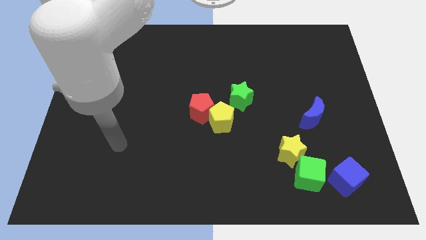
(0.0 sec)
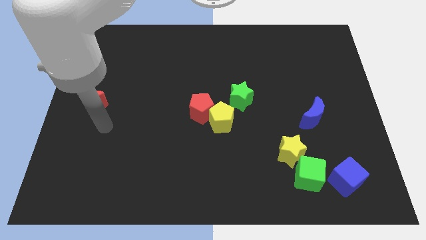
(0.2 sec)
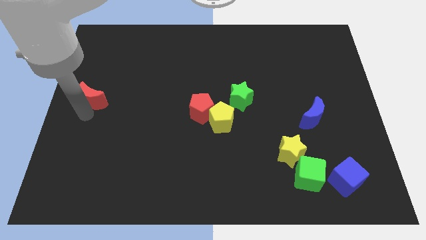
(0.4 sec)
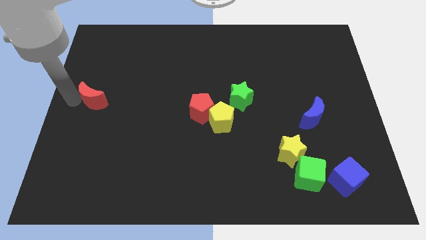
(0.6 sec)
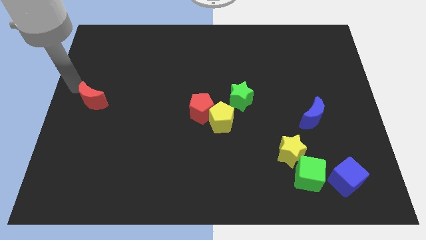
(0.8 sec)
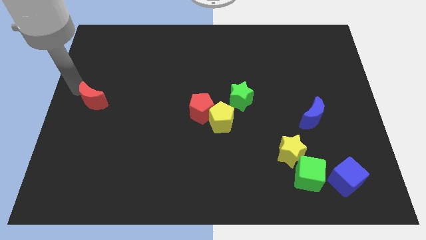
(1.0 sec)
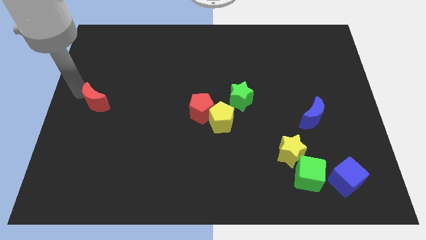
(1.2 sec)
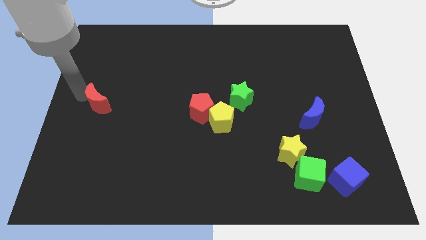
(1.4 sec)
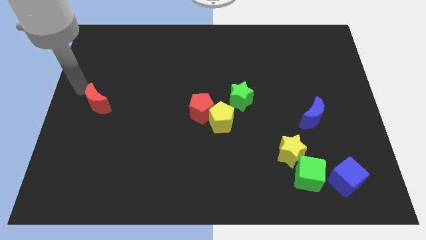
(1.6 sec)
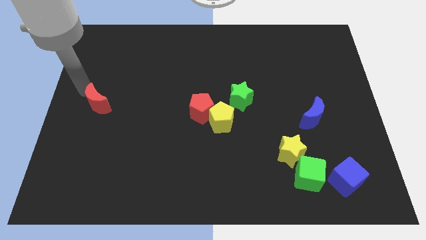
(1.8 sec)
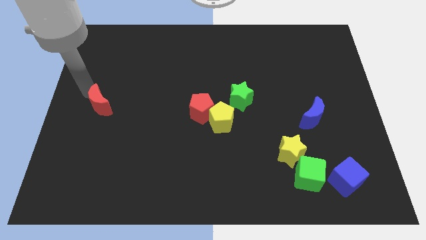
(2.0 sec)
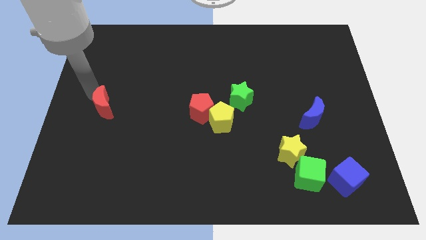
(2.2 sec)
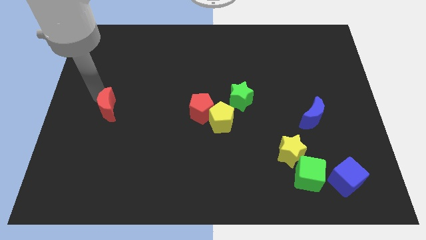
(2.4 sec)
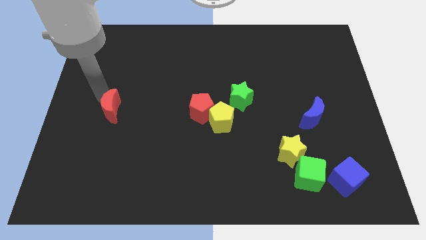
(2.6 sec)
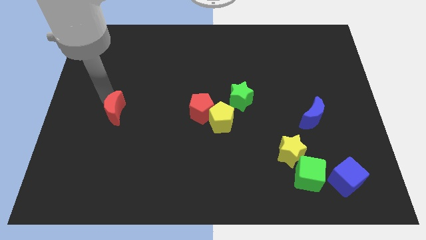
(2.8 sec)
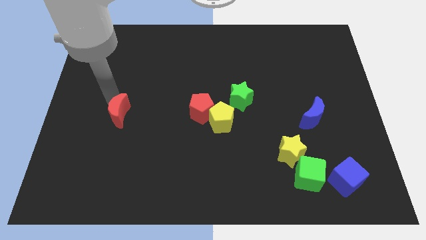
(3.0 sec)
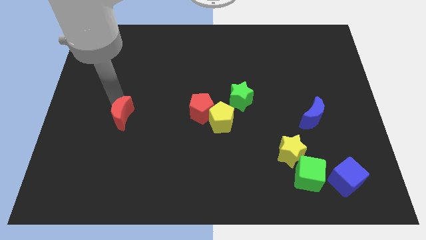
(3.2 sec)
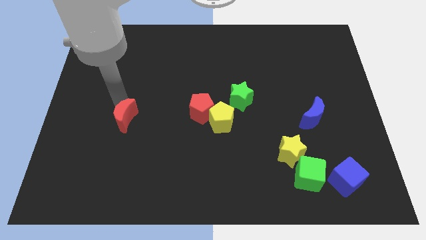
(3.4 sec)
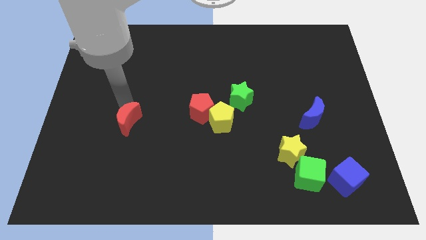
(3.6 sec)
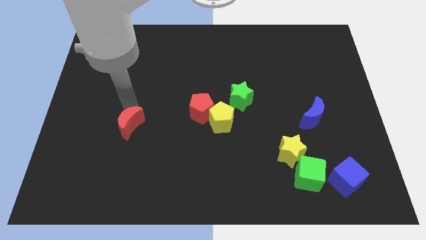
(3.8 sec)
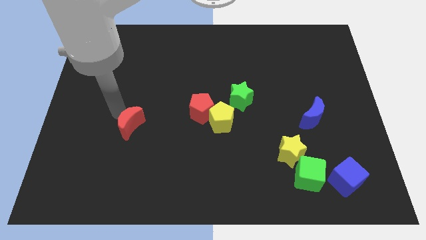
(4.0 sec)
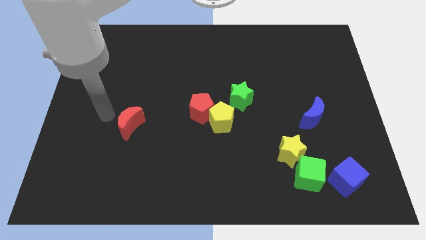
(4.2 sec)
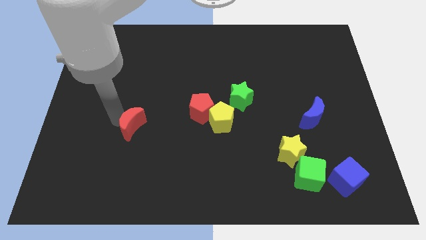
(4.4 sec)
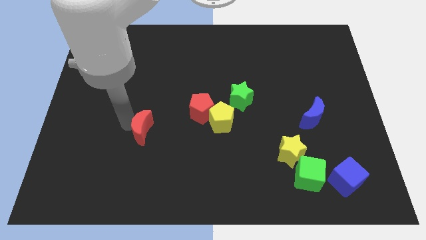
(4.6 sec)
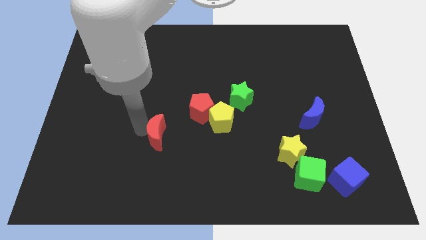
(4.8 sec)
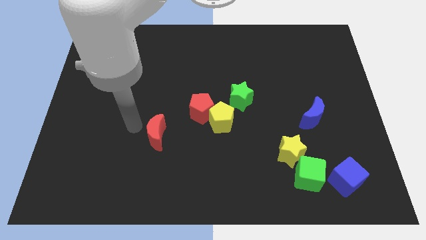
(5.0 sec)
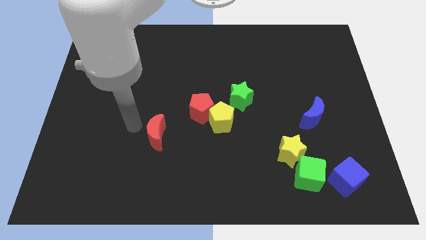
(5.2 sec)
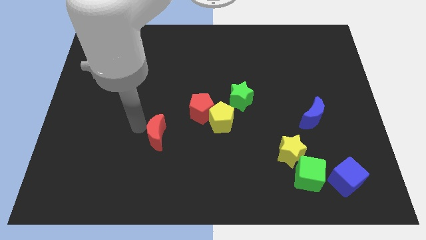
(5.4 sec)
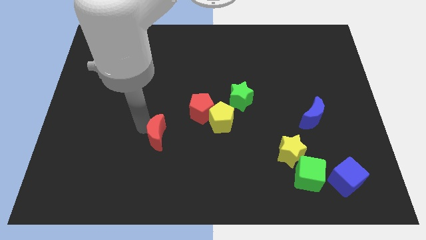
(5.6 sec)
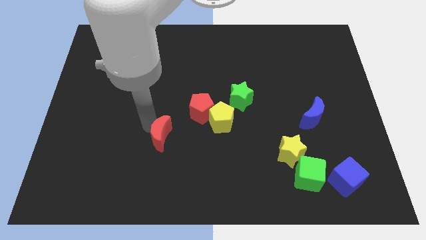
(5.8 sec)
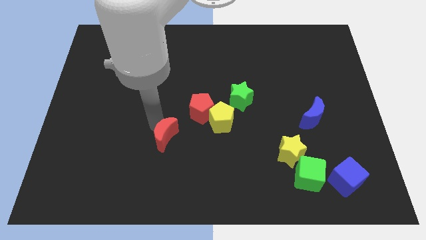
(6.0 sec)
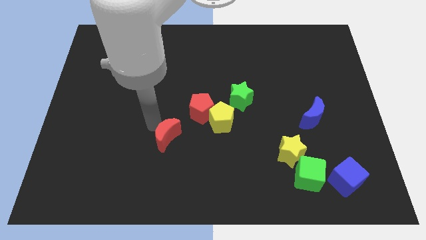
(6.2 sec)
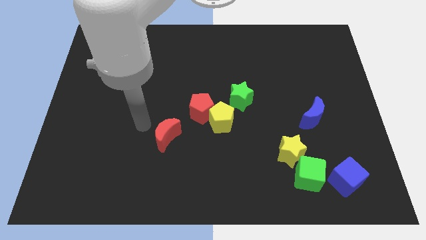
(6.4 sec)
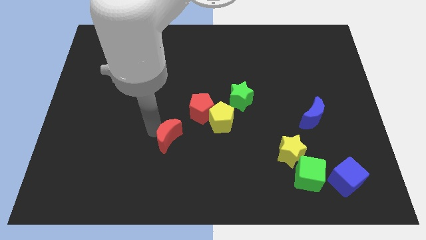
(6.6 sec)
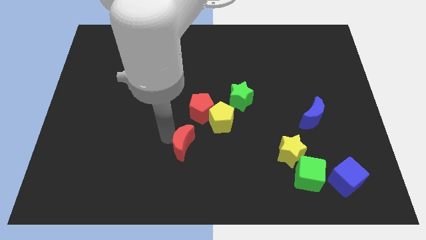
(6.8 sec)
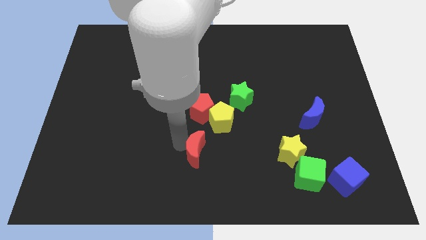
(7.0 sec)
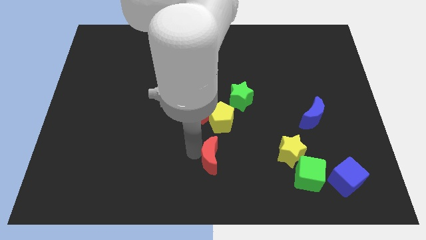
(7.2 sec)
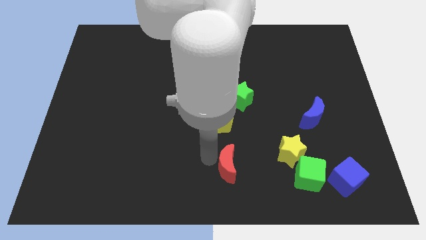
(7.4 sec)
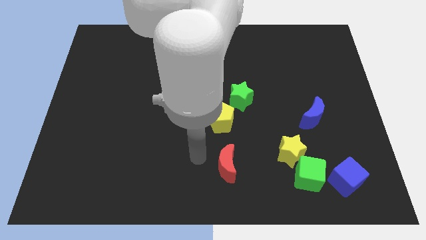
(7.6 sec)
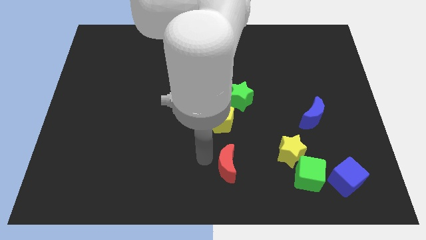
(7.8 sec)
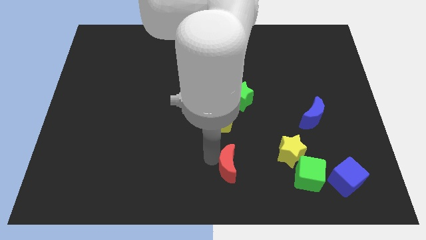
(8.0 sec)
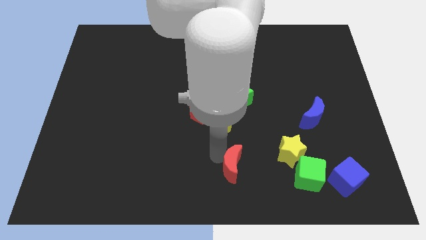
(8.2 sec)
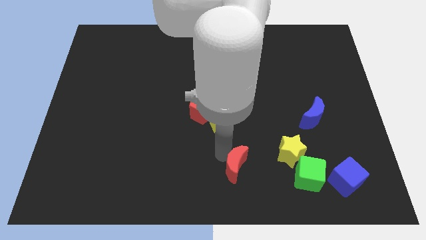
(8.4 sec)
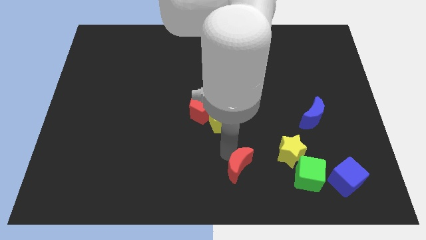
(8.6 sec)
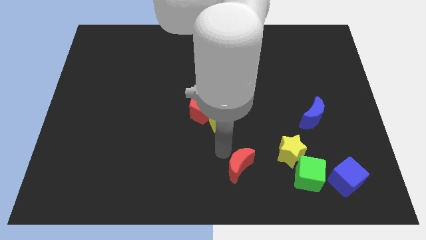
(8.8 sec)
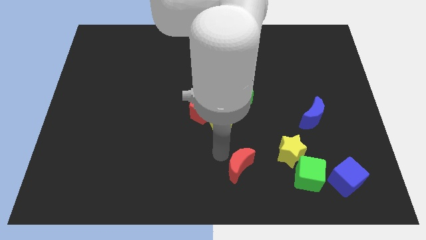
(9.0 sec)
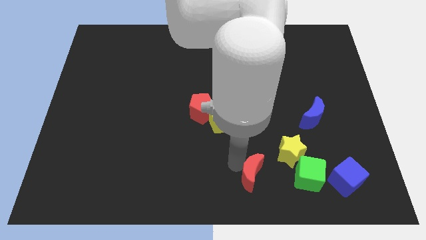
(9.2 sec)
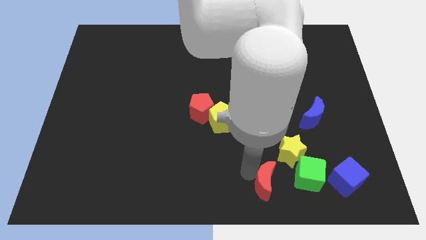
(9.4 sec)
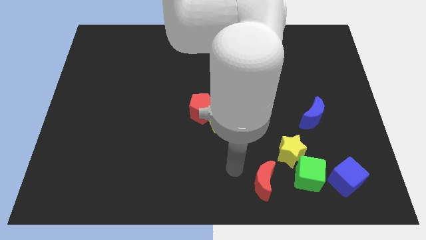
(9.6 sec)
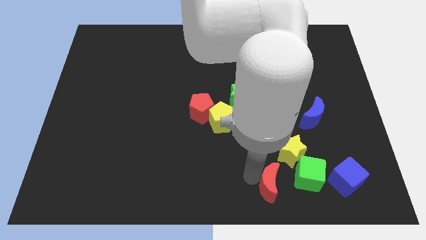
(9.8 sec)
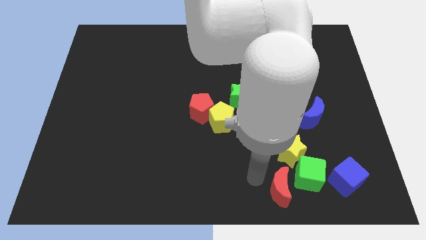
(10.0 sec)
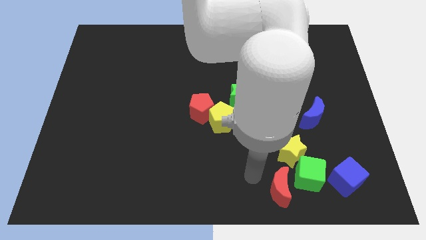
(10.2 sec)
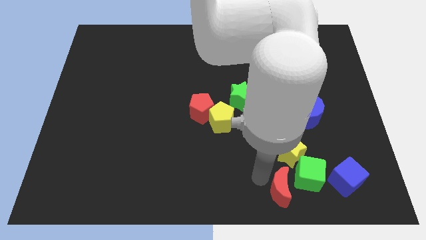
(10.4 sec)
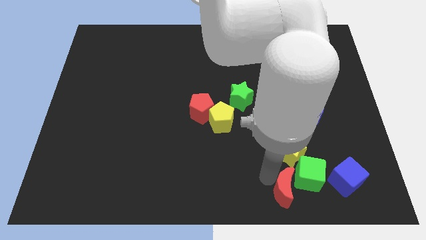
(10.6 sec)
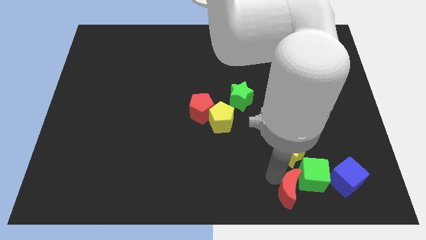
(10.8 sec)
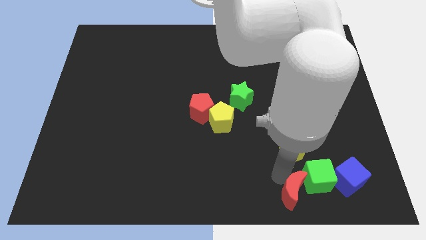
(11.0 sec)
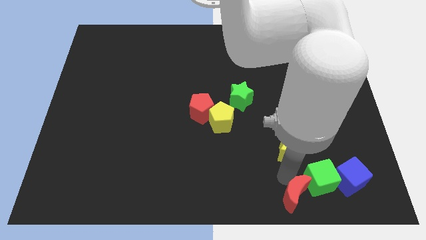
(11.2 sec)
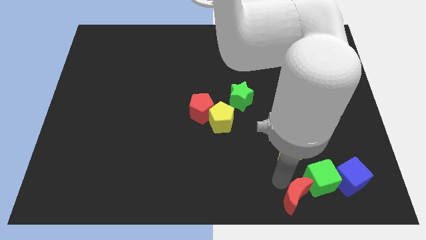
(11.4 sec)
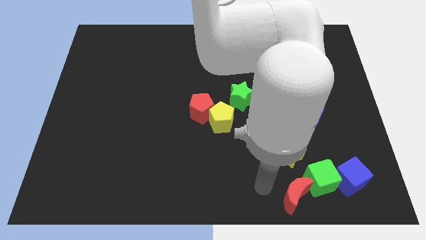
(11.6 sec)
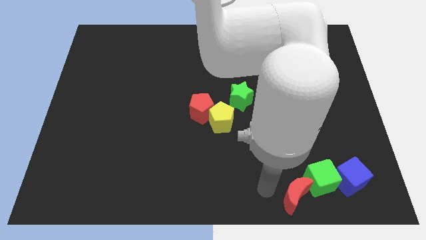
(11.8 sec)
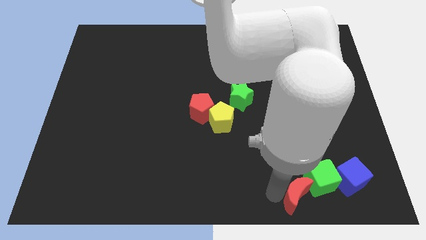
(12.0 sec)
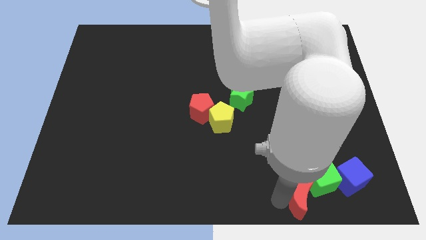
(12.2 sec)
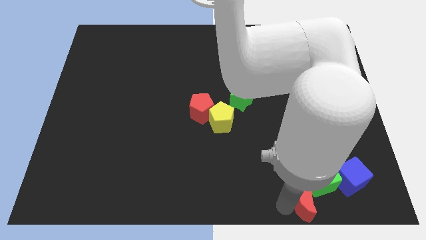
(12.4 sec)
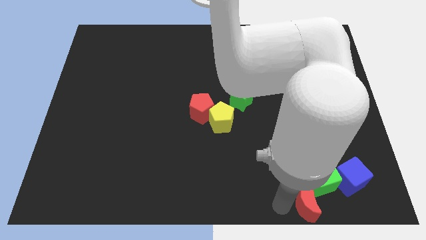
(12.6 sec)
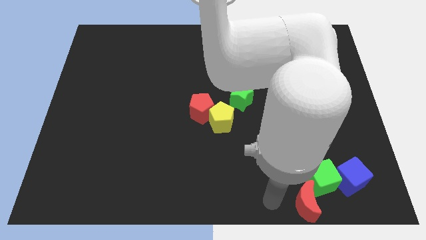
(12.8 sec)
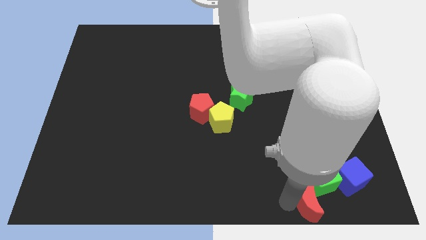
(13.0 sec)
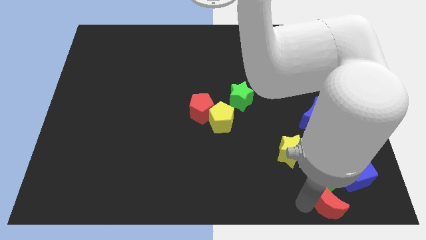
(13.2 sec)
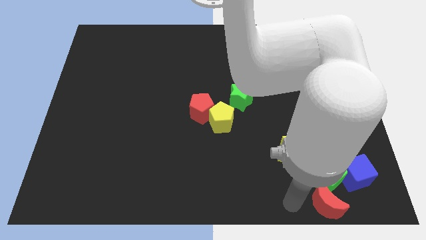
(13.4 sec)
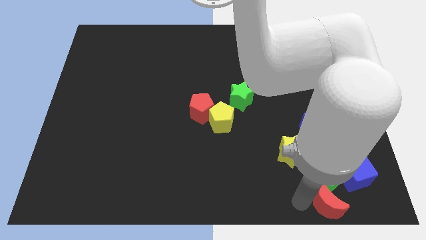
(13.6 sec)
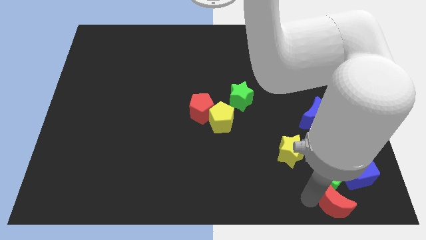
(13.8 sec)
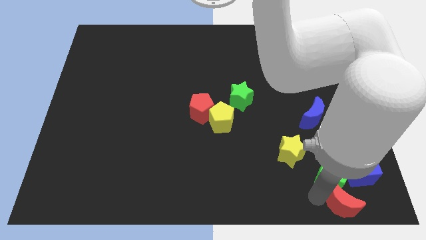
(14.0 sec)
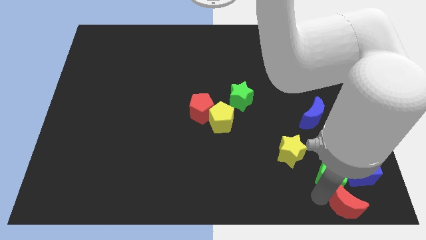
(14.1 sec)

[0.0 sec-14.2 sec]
put the red moon to the lower right corner

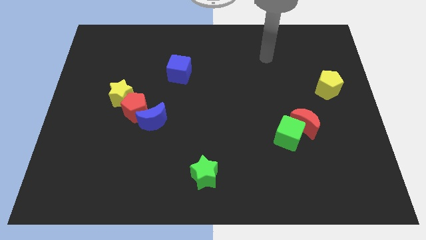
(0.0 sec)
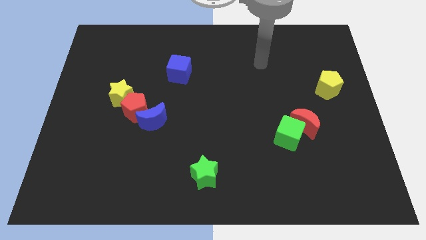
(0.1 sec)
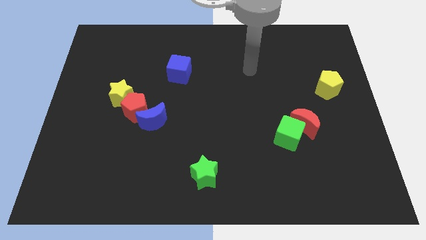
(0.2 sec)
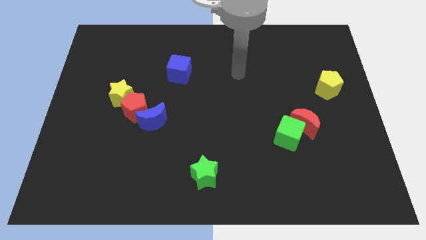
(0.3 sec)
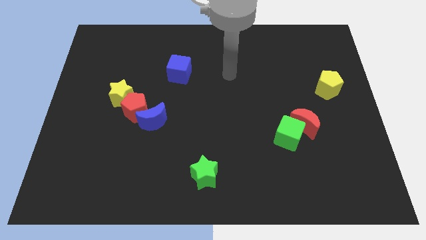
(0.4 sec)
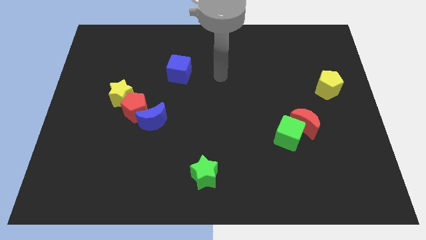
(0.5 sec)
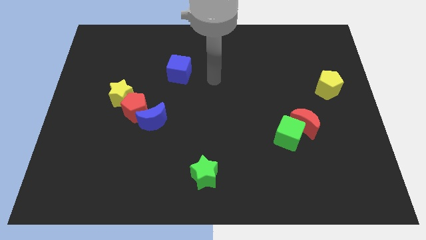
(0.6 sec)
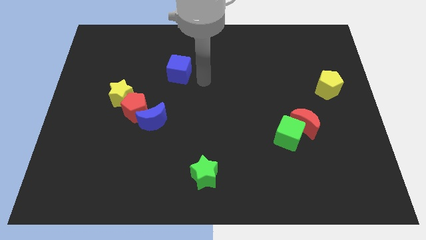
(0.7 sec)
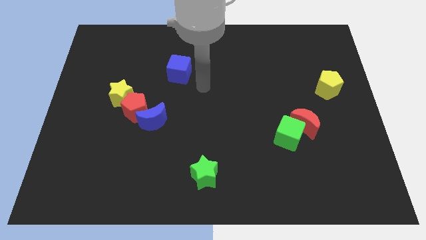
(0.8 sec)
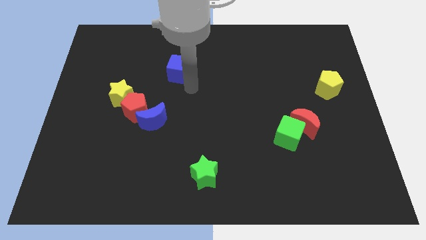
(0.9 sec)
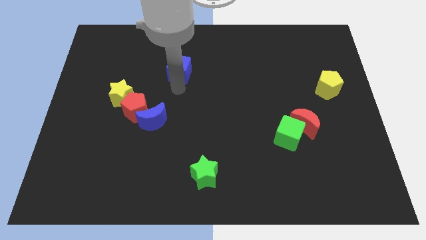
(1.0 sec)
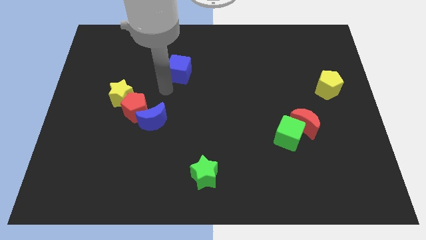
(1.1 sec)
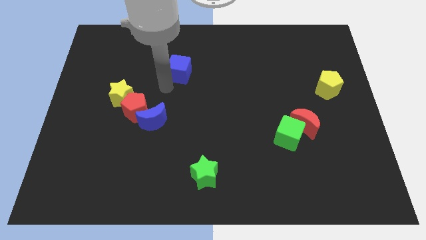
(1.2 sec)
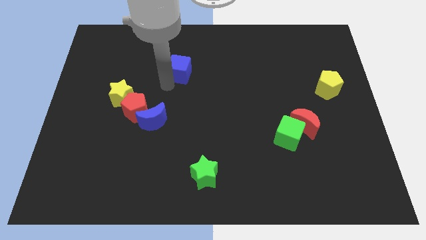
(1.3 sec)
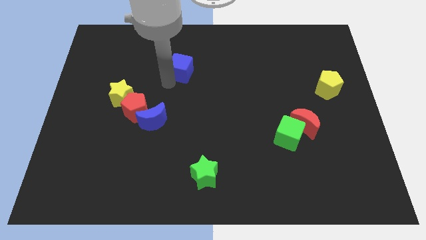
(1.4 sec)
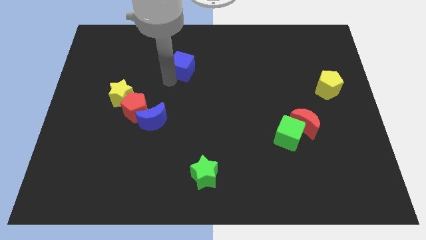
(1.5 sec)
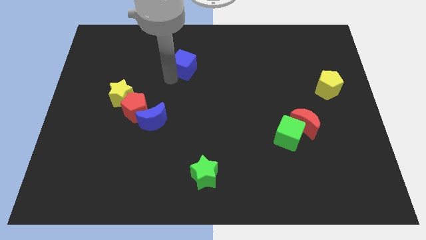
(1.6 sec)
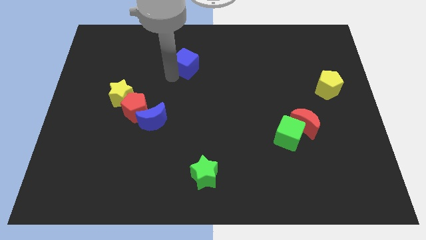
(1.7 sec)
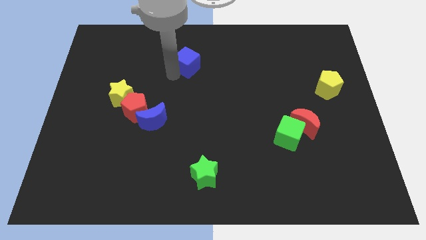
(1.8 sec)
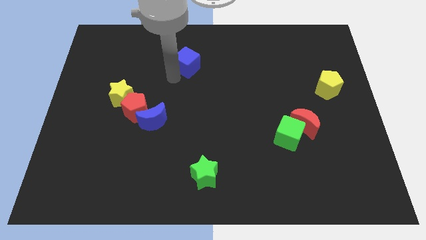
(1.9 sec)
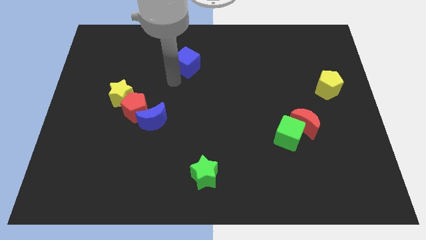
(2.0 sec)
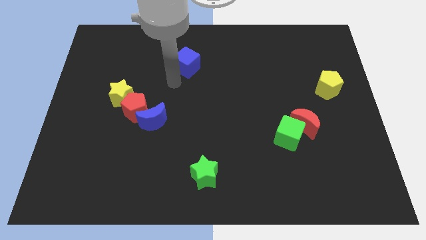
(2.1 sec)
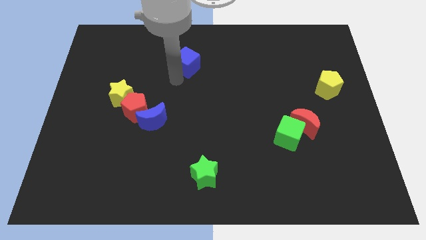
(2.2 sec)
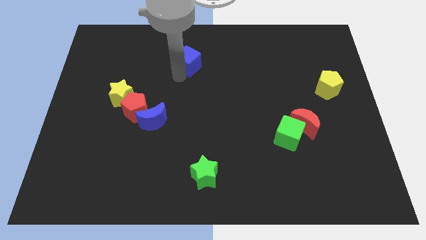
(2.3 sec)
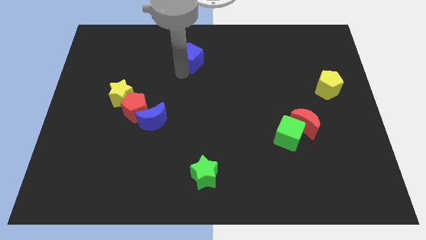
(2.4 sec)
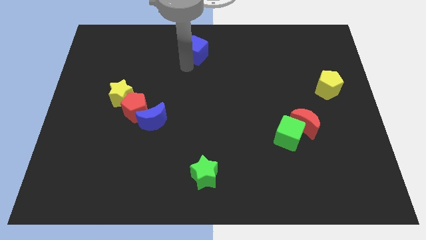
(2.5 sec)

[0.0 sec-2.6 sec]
slide the blue cube to the top
